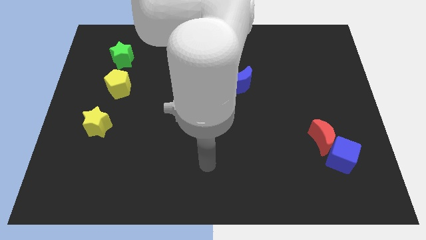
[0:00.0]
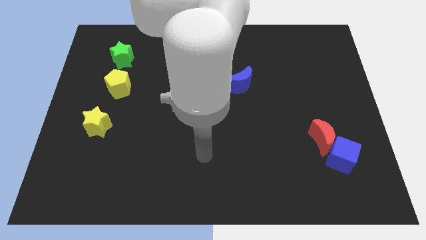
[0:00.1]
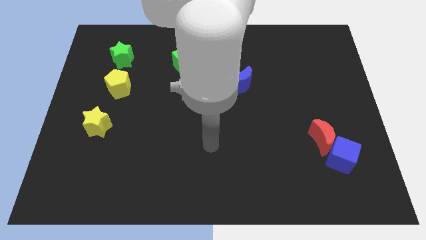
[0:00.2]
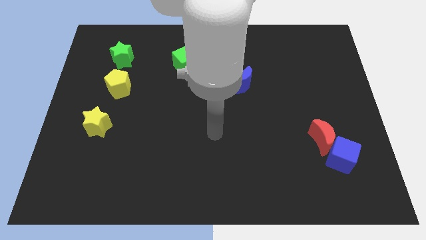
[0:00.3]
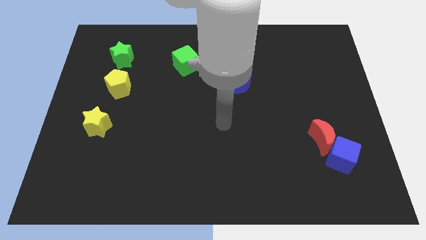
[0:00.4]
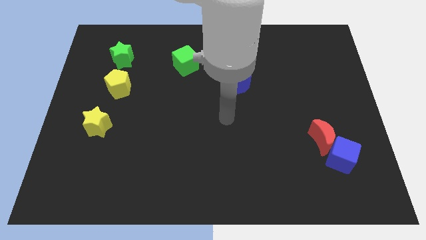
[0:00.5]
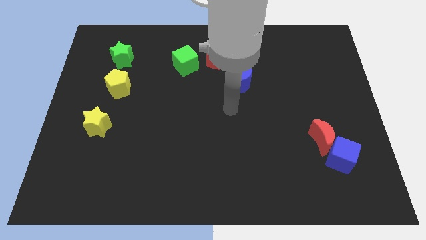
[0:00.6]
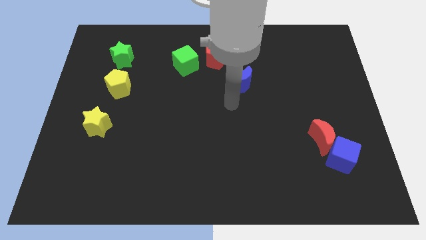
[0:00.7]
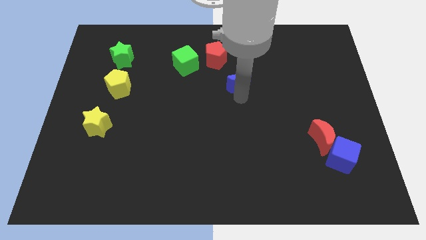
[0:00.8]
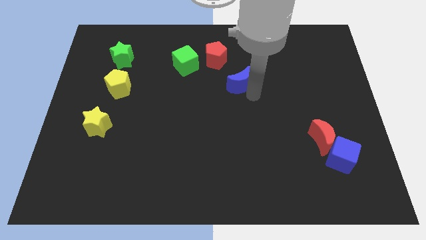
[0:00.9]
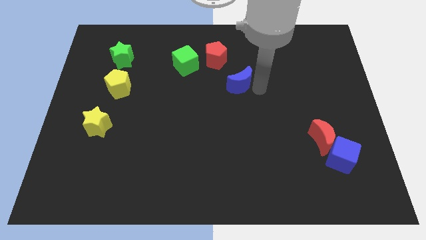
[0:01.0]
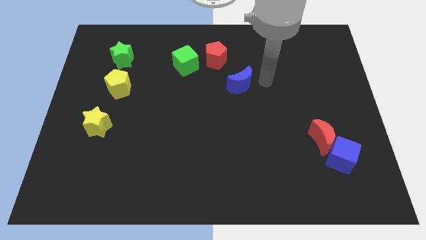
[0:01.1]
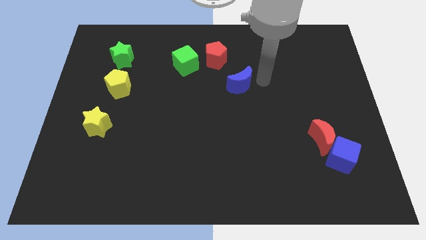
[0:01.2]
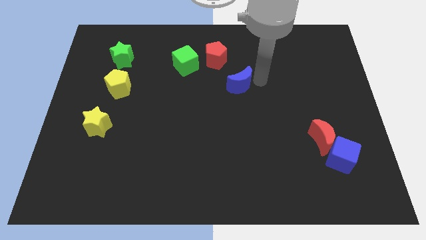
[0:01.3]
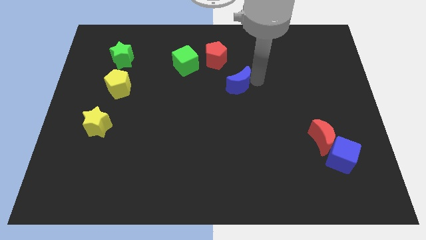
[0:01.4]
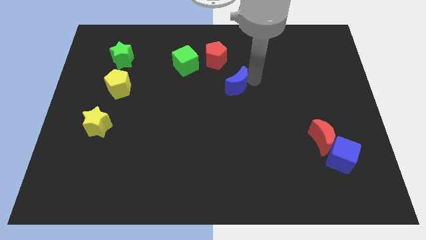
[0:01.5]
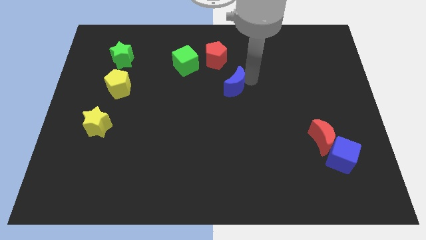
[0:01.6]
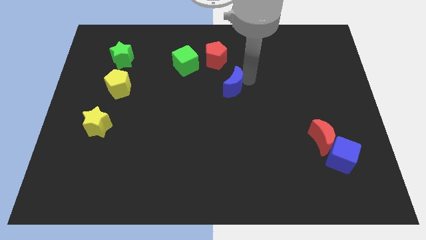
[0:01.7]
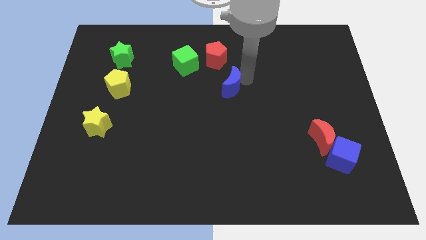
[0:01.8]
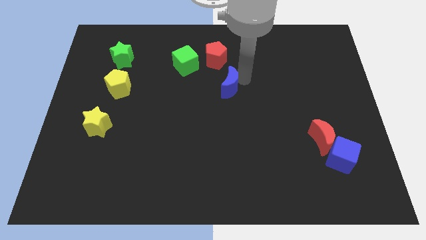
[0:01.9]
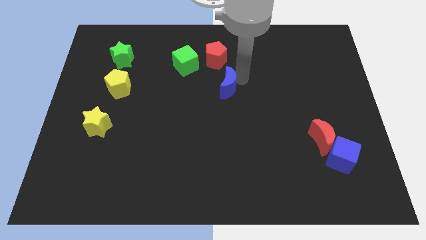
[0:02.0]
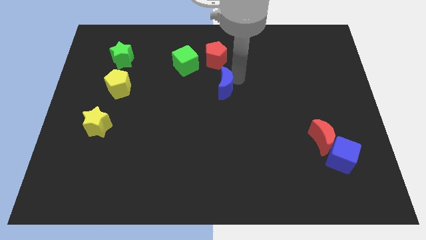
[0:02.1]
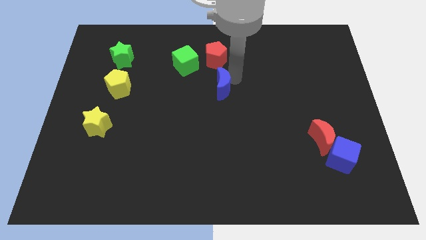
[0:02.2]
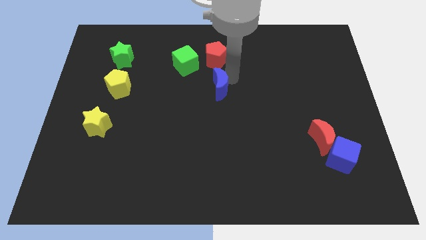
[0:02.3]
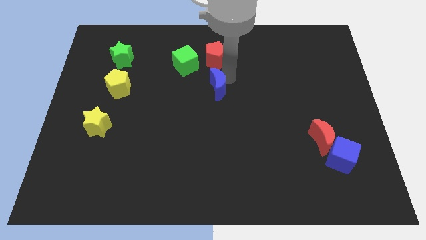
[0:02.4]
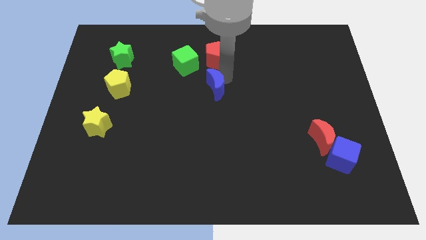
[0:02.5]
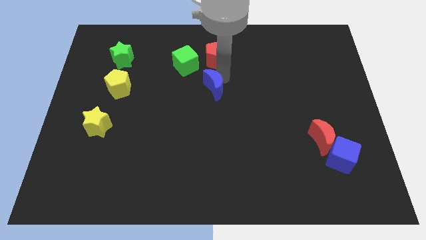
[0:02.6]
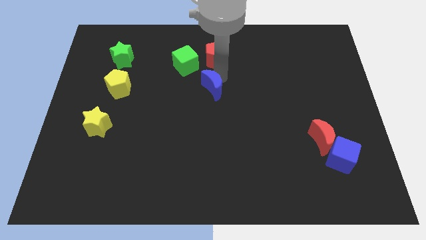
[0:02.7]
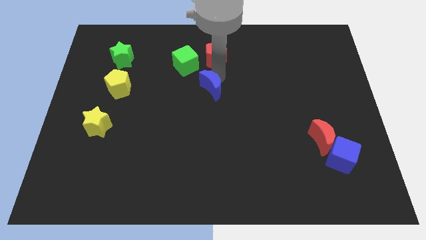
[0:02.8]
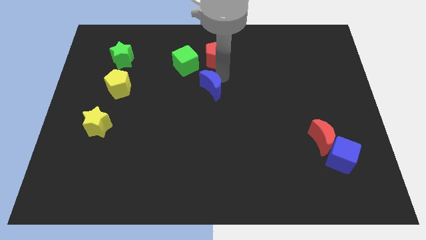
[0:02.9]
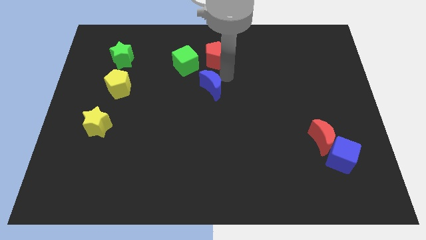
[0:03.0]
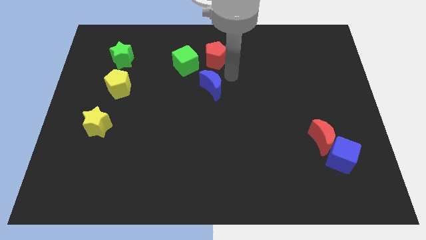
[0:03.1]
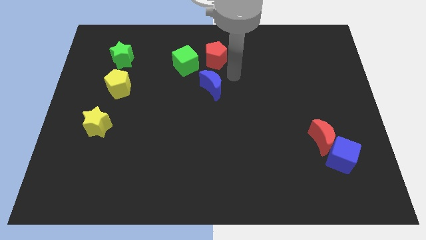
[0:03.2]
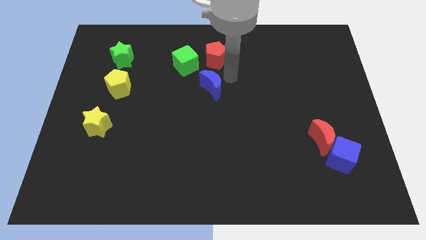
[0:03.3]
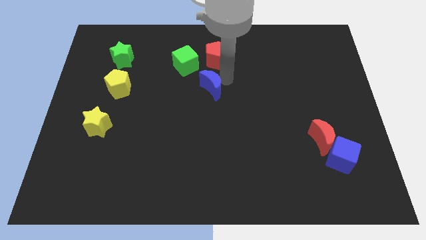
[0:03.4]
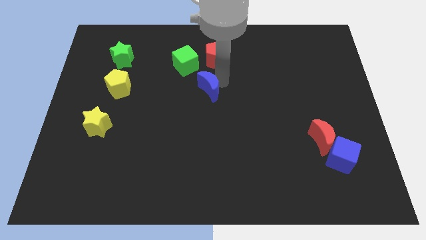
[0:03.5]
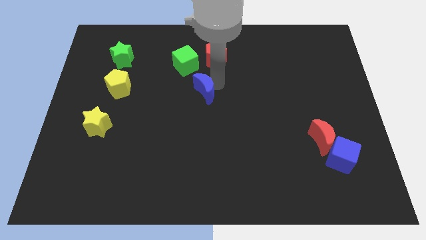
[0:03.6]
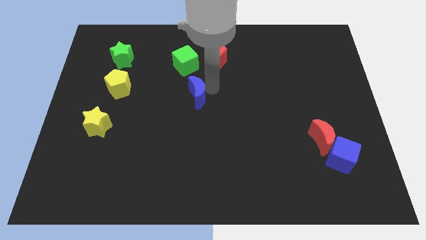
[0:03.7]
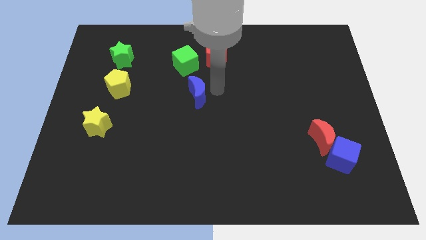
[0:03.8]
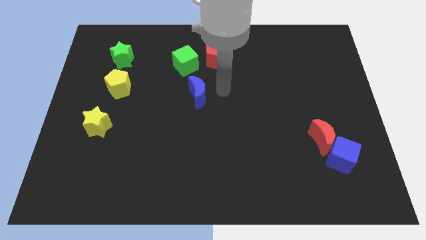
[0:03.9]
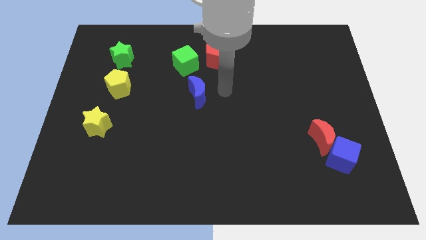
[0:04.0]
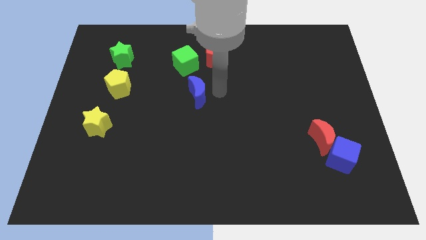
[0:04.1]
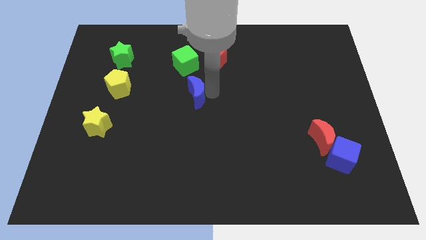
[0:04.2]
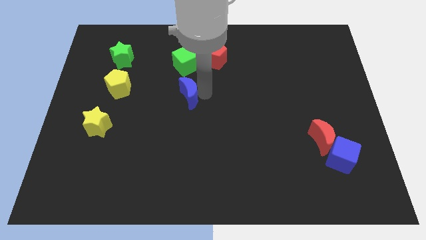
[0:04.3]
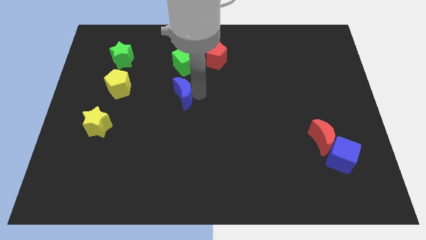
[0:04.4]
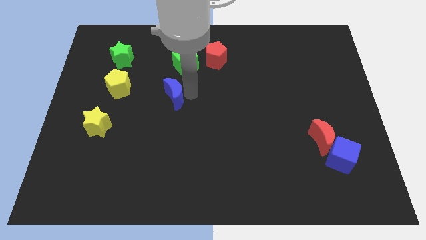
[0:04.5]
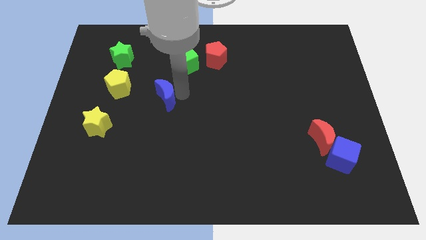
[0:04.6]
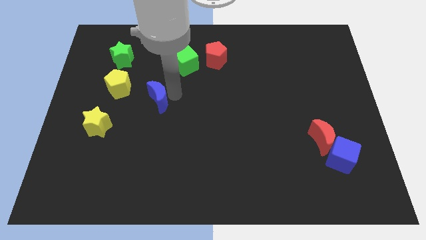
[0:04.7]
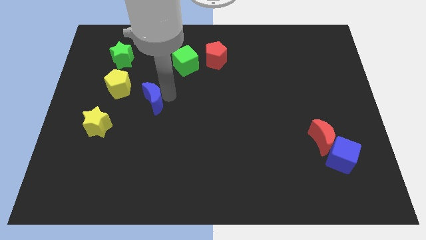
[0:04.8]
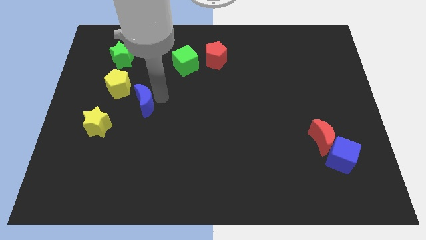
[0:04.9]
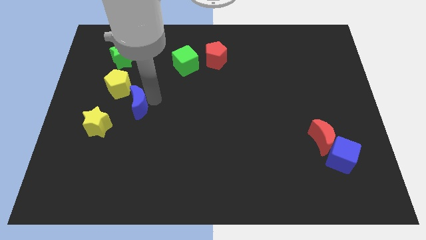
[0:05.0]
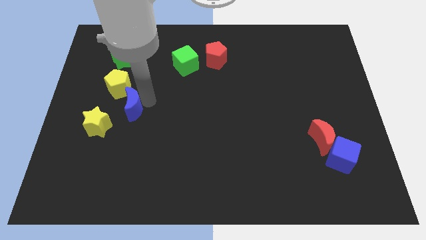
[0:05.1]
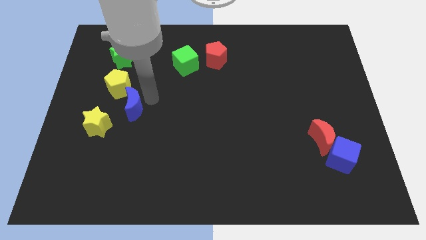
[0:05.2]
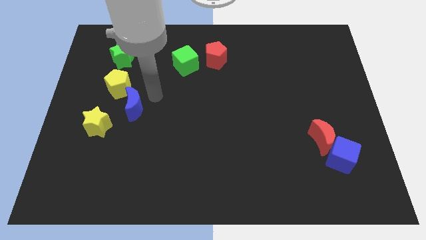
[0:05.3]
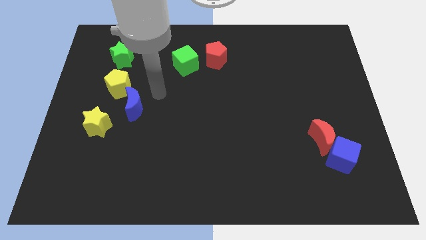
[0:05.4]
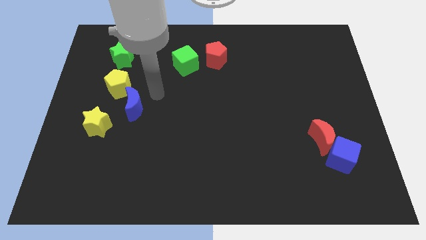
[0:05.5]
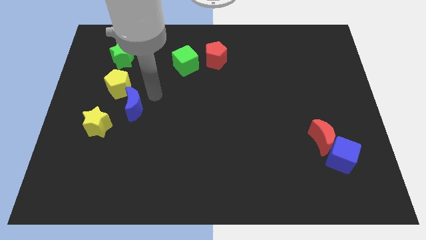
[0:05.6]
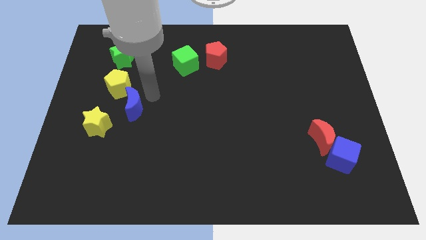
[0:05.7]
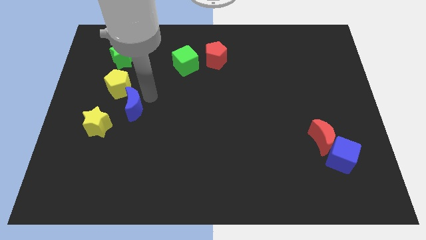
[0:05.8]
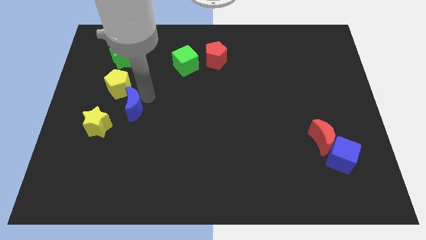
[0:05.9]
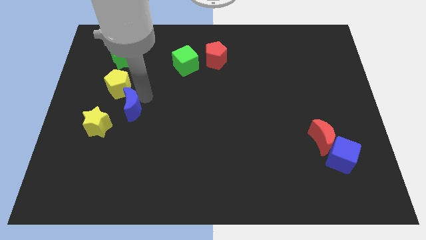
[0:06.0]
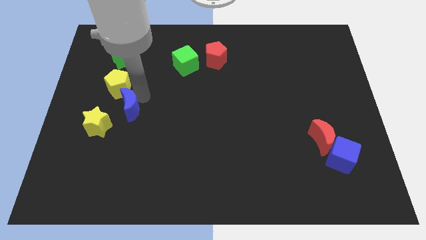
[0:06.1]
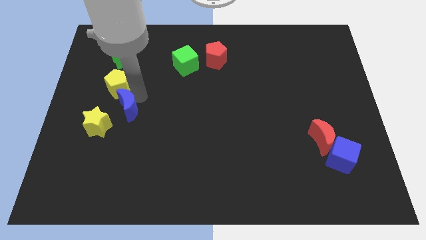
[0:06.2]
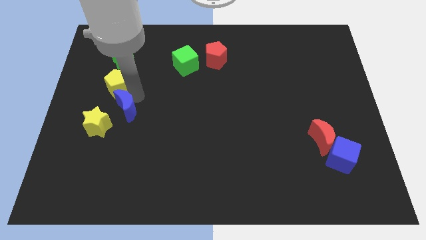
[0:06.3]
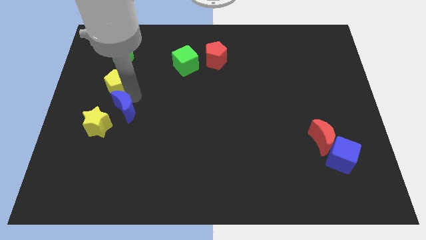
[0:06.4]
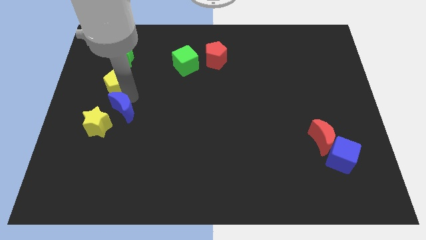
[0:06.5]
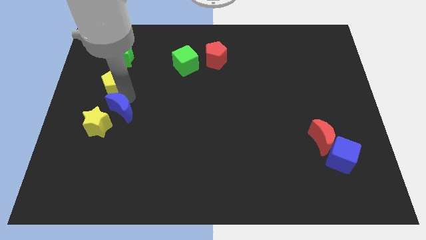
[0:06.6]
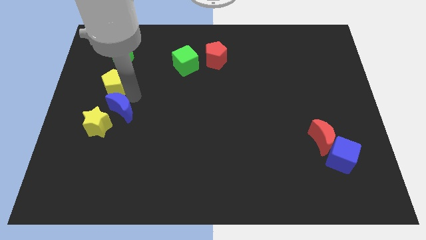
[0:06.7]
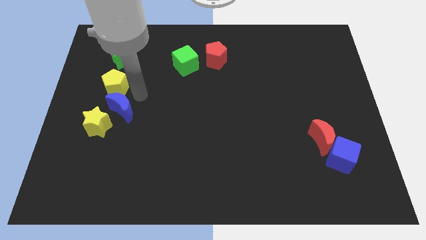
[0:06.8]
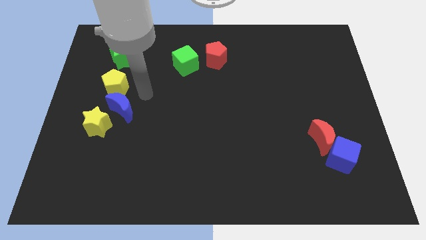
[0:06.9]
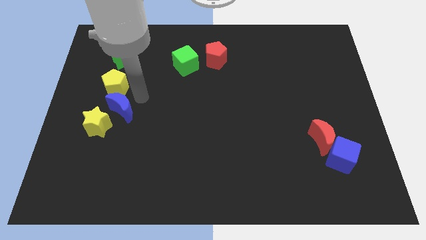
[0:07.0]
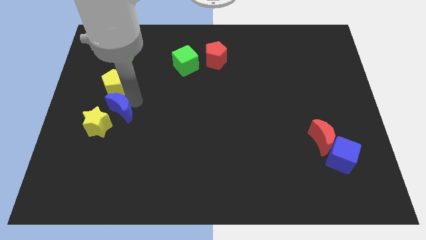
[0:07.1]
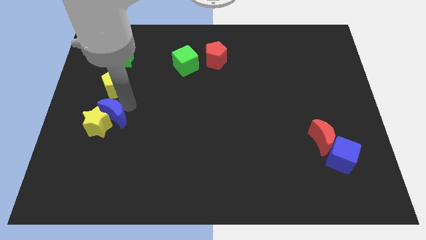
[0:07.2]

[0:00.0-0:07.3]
put the blue moon to the yellow star

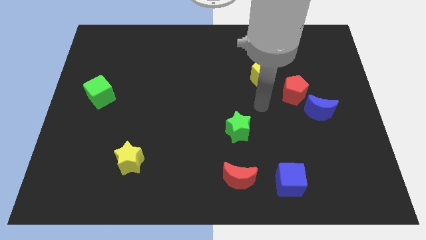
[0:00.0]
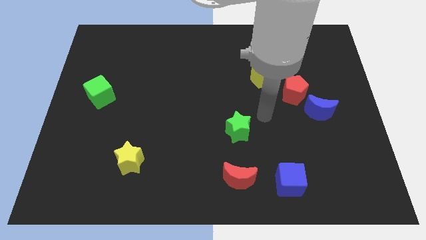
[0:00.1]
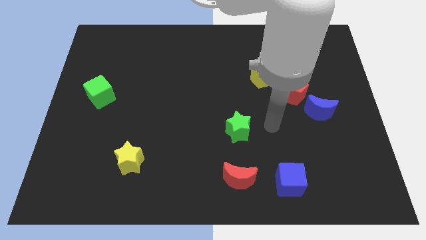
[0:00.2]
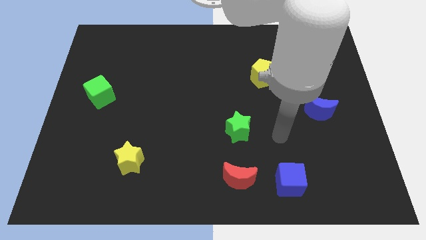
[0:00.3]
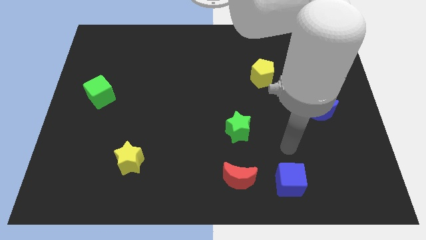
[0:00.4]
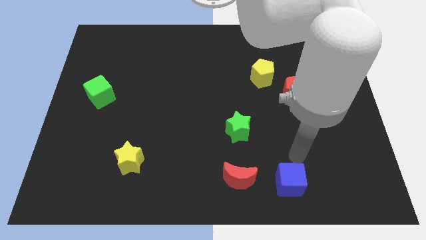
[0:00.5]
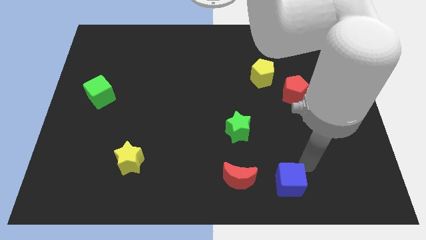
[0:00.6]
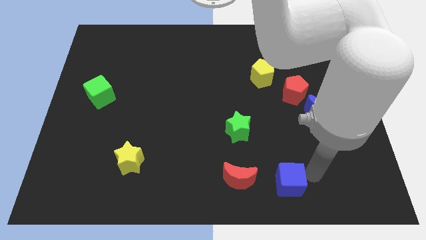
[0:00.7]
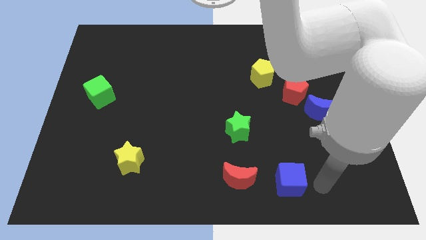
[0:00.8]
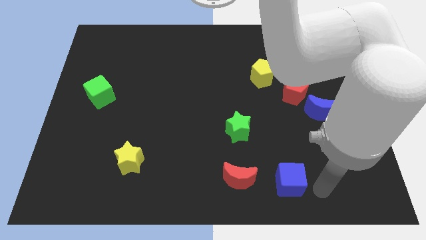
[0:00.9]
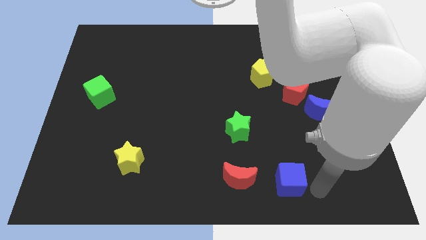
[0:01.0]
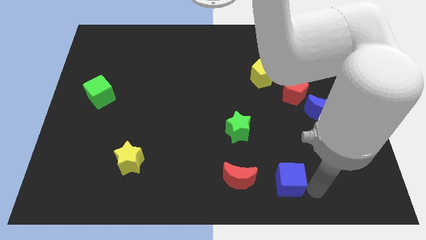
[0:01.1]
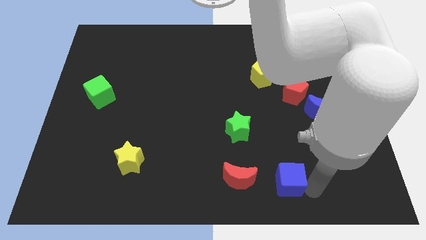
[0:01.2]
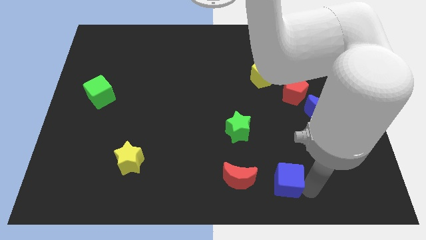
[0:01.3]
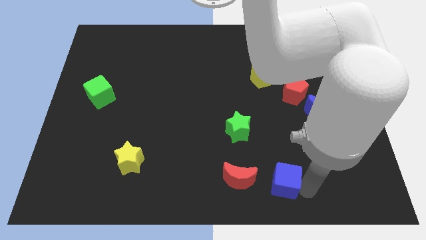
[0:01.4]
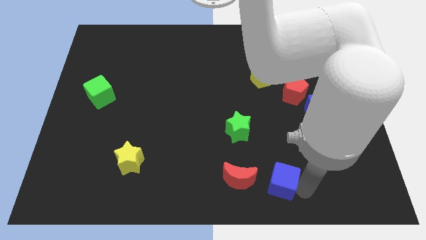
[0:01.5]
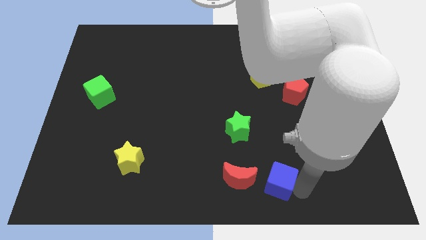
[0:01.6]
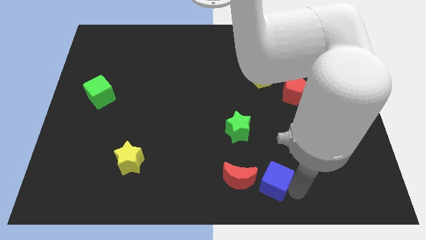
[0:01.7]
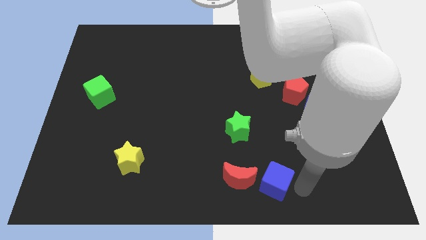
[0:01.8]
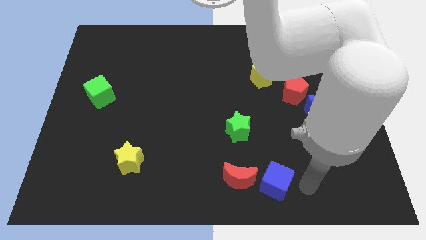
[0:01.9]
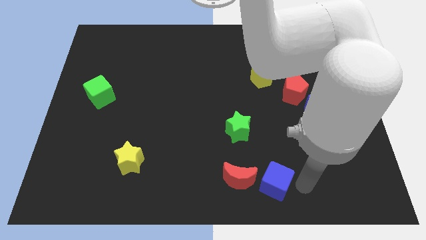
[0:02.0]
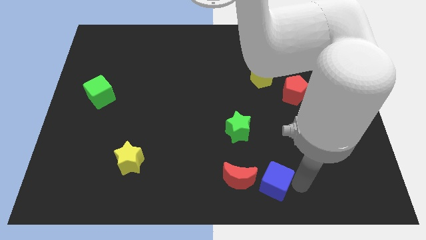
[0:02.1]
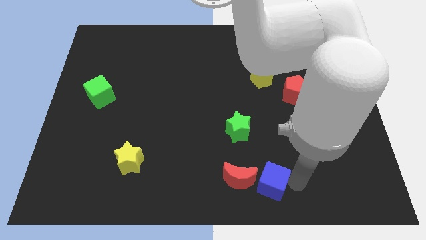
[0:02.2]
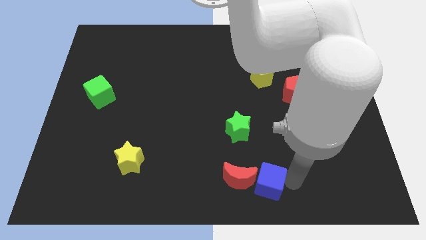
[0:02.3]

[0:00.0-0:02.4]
push the blue cube close to the red moon
